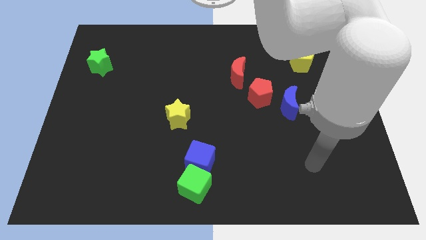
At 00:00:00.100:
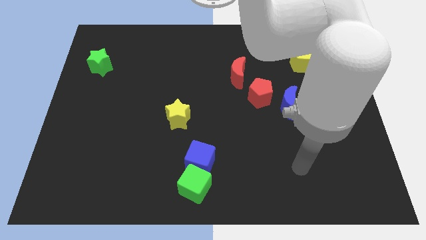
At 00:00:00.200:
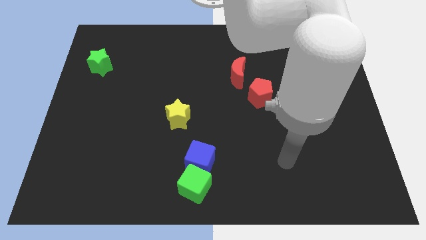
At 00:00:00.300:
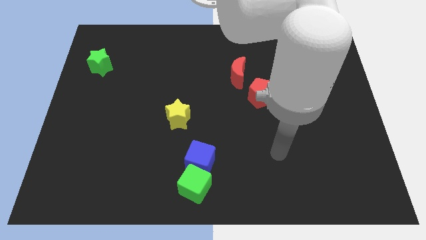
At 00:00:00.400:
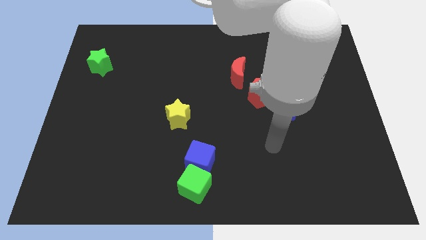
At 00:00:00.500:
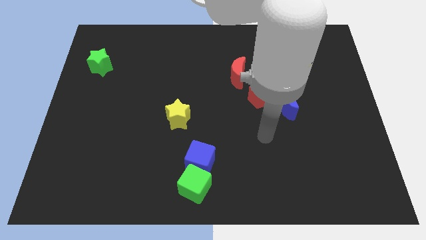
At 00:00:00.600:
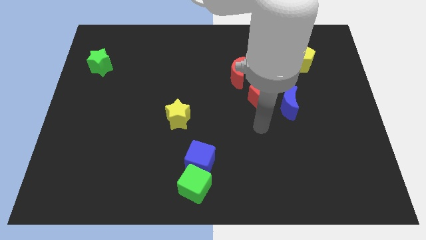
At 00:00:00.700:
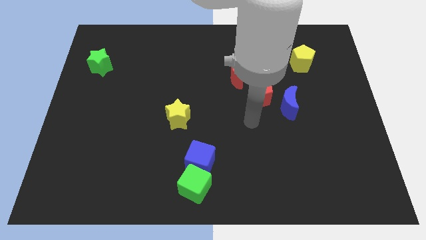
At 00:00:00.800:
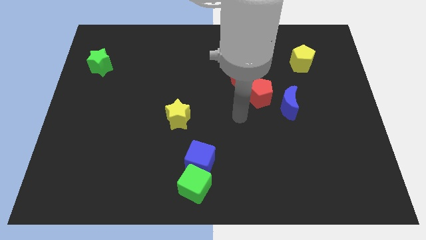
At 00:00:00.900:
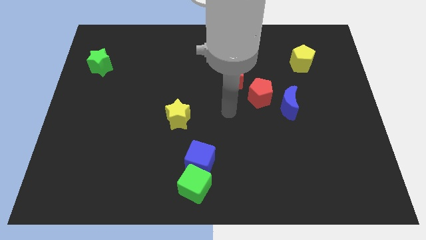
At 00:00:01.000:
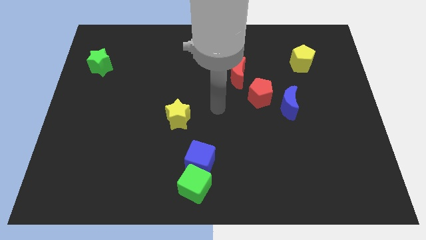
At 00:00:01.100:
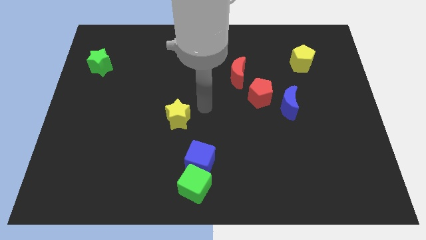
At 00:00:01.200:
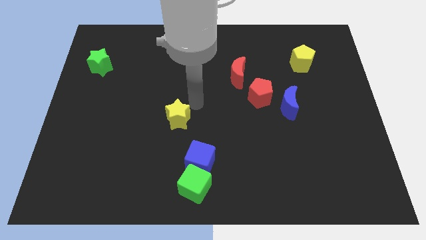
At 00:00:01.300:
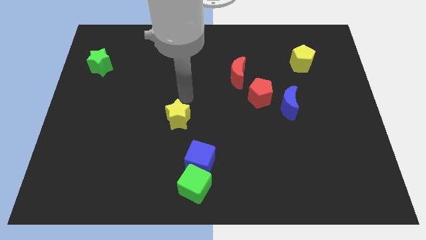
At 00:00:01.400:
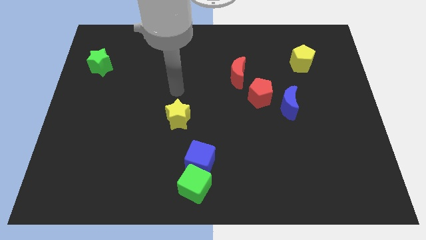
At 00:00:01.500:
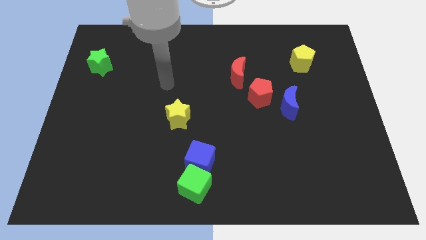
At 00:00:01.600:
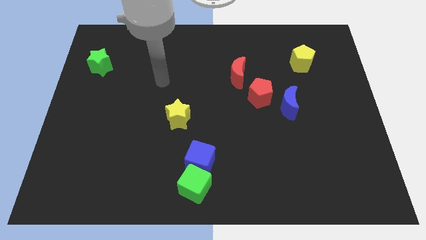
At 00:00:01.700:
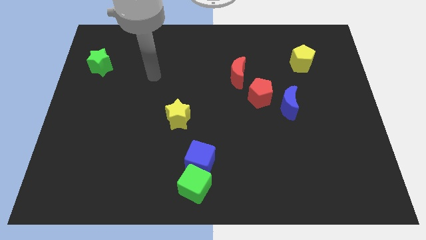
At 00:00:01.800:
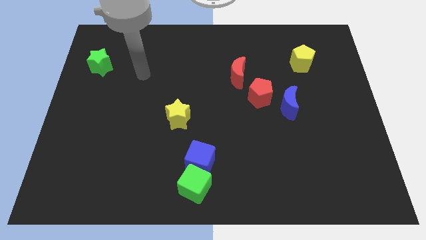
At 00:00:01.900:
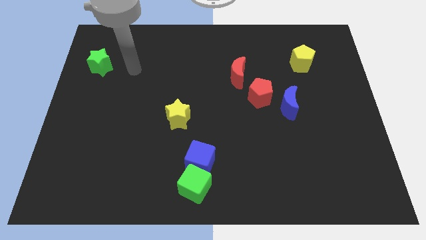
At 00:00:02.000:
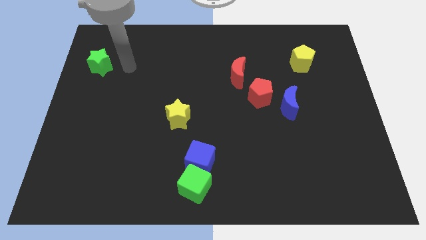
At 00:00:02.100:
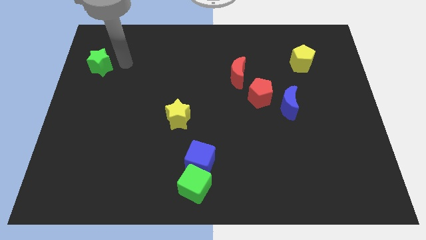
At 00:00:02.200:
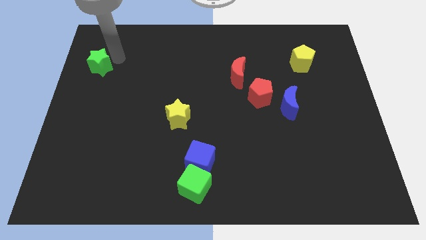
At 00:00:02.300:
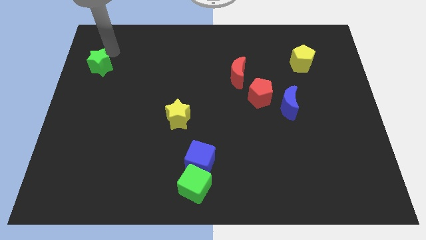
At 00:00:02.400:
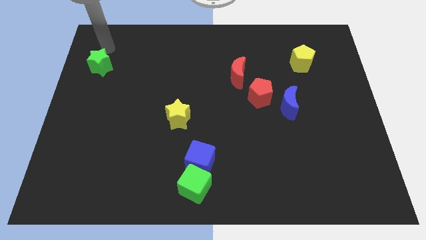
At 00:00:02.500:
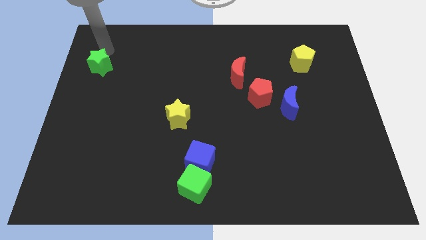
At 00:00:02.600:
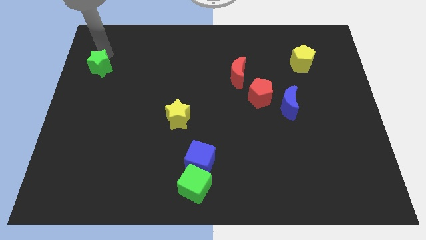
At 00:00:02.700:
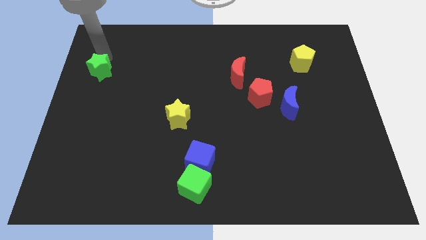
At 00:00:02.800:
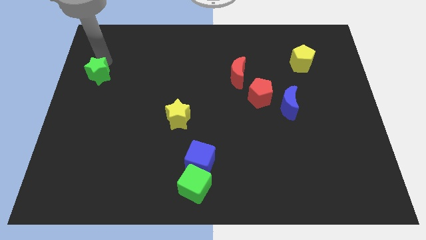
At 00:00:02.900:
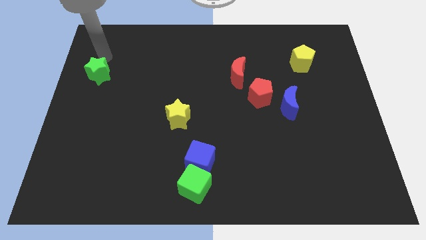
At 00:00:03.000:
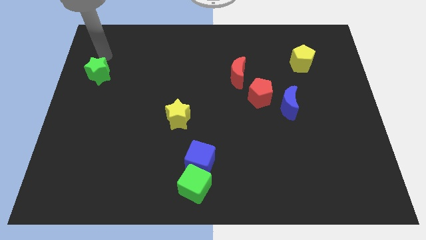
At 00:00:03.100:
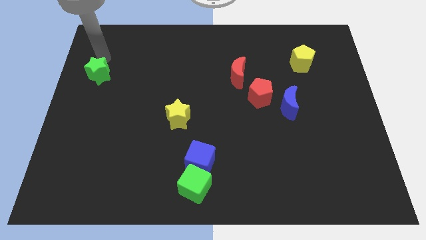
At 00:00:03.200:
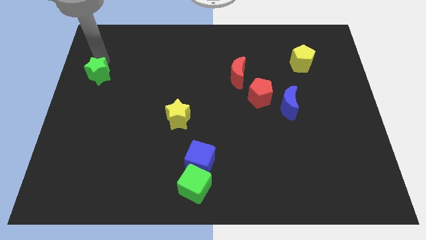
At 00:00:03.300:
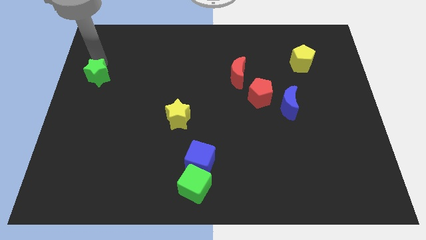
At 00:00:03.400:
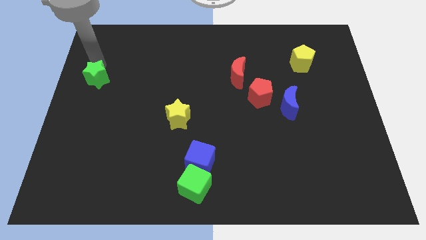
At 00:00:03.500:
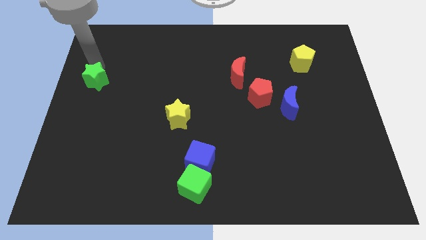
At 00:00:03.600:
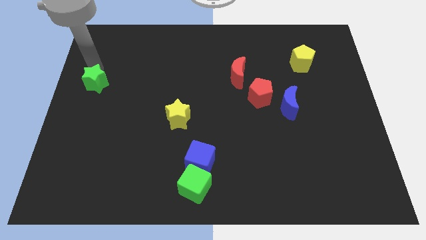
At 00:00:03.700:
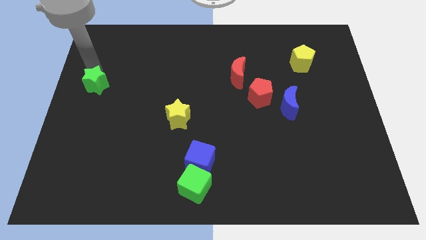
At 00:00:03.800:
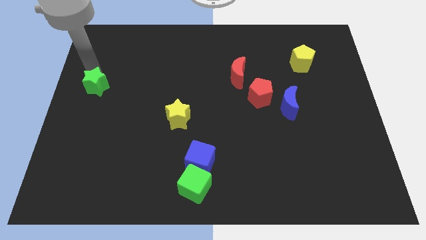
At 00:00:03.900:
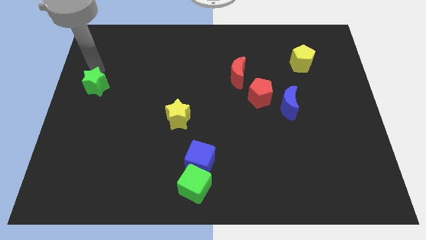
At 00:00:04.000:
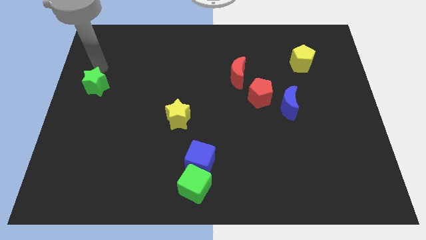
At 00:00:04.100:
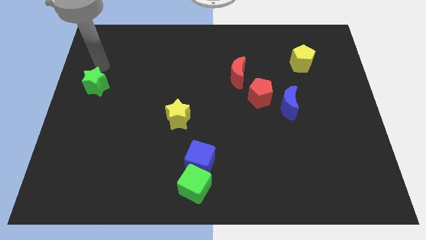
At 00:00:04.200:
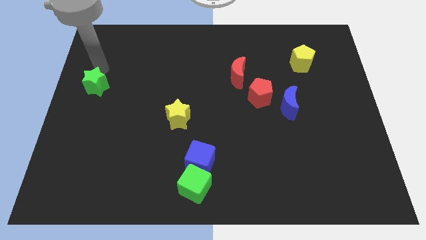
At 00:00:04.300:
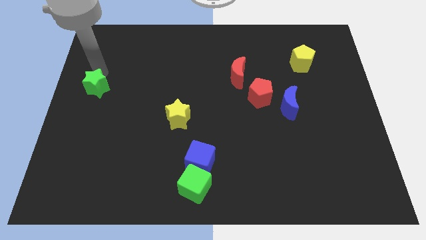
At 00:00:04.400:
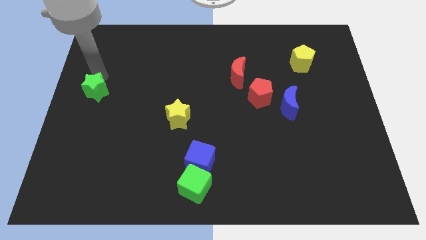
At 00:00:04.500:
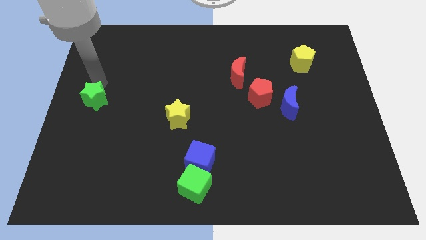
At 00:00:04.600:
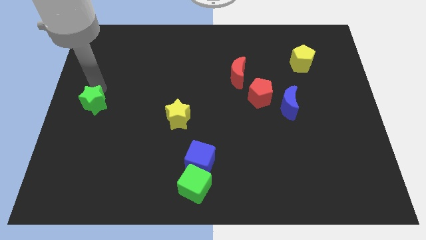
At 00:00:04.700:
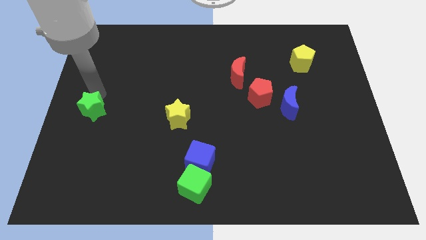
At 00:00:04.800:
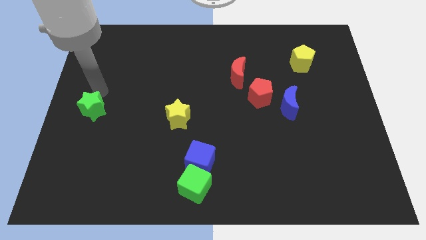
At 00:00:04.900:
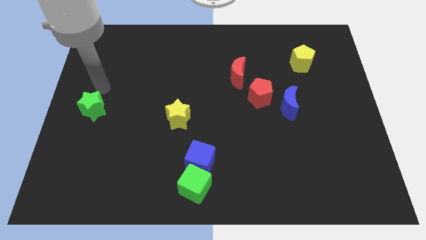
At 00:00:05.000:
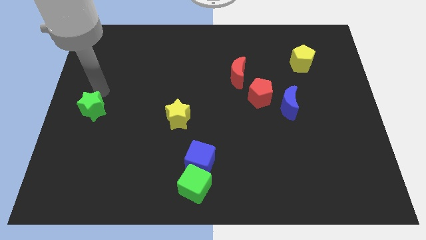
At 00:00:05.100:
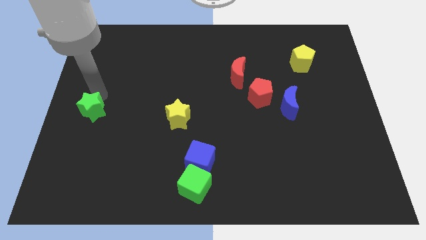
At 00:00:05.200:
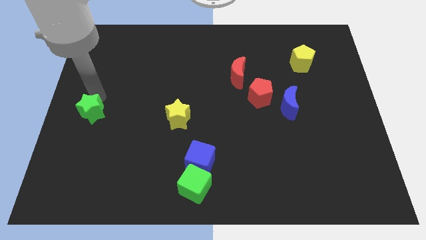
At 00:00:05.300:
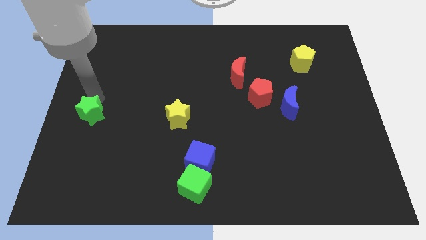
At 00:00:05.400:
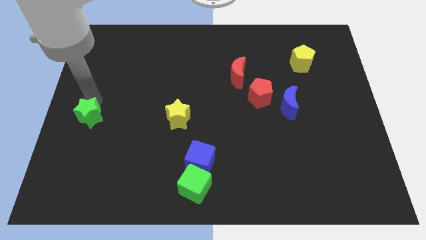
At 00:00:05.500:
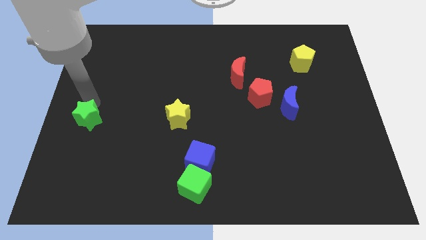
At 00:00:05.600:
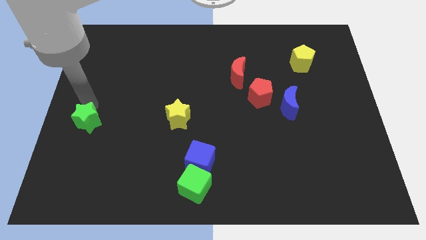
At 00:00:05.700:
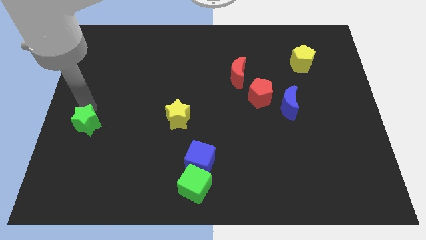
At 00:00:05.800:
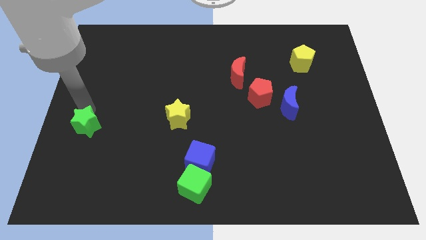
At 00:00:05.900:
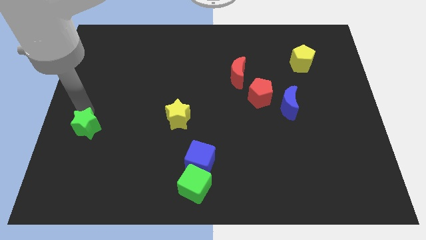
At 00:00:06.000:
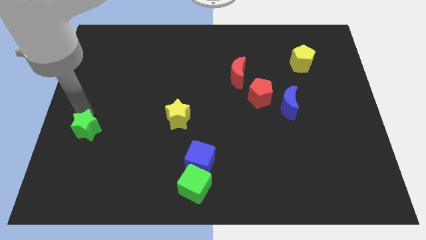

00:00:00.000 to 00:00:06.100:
push the green star downwards

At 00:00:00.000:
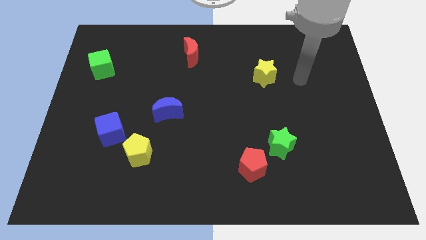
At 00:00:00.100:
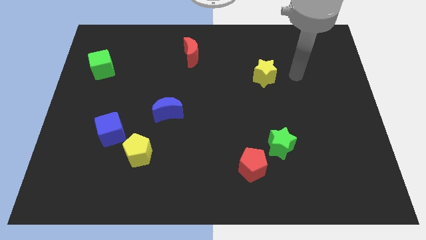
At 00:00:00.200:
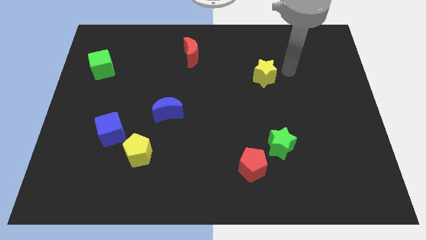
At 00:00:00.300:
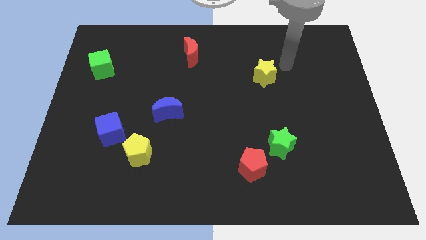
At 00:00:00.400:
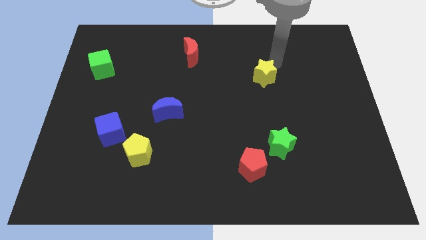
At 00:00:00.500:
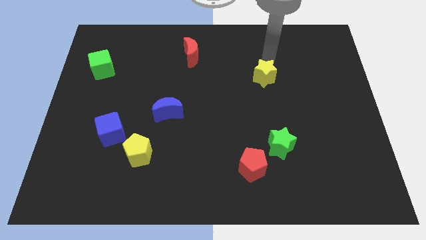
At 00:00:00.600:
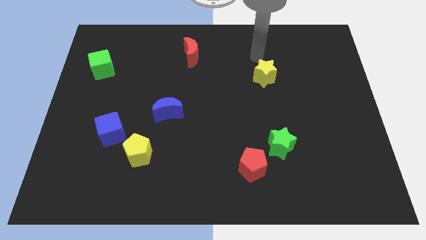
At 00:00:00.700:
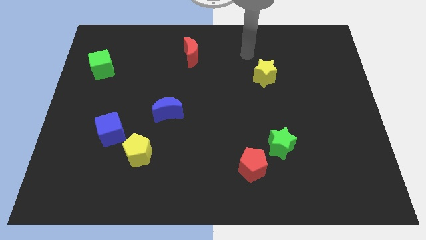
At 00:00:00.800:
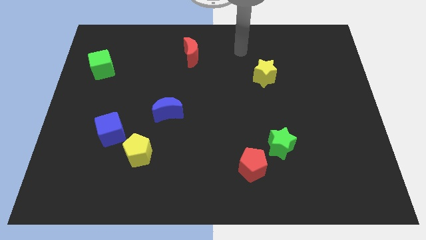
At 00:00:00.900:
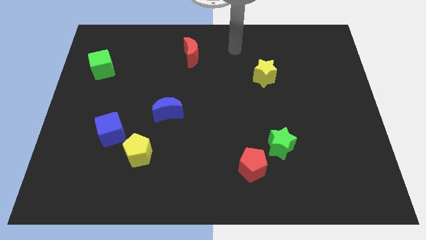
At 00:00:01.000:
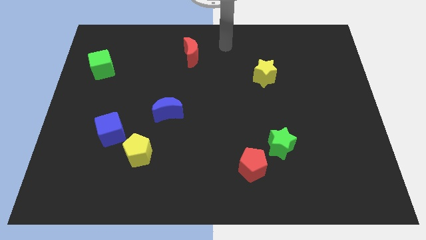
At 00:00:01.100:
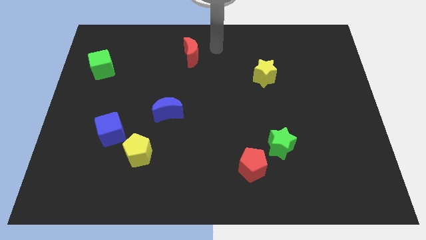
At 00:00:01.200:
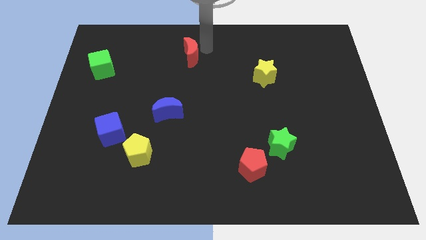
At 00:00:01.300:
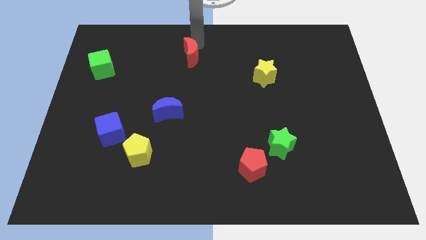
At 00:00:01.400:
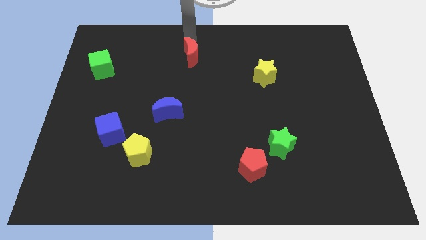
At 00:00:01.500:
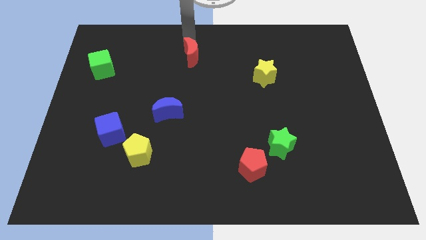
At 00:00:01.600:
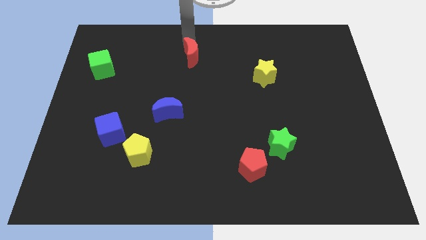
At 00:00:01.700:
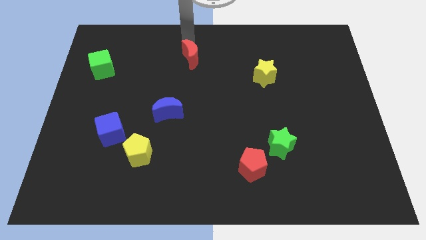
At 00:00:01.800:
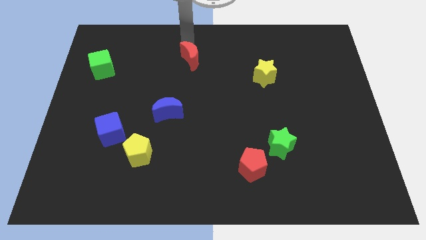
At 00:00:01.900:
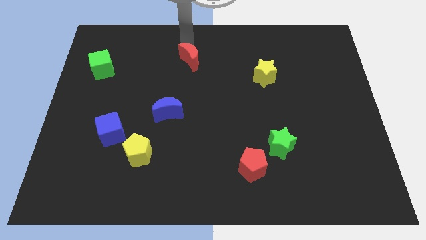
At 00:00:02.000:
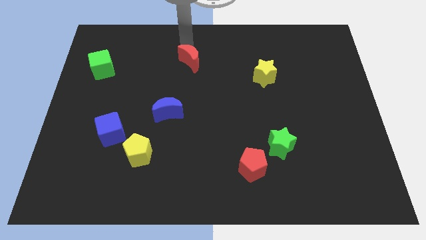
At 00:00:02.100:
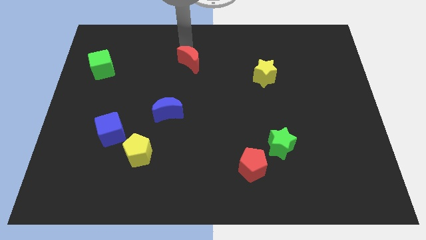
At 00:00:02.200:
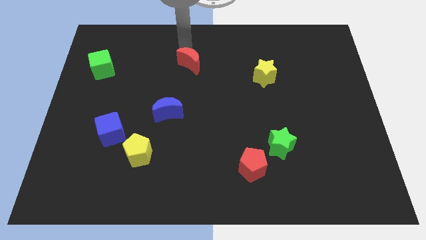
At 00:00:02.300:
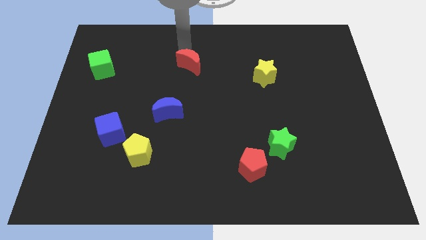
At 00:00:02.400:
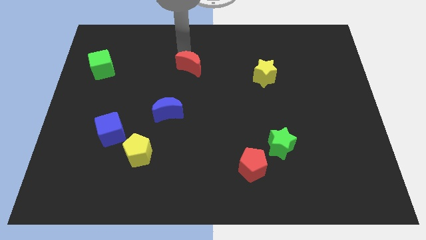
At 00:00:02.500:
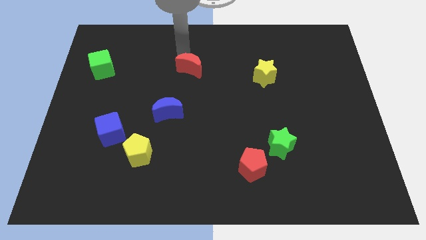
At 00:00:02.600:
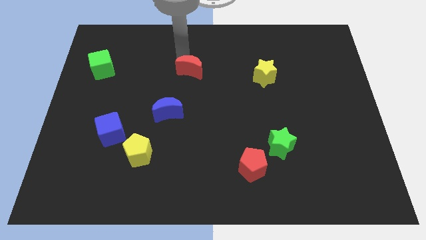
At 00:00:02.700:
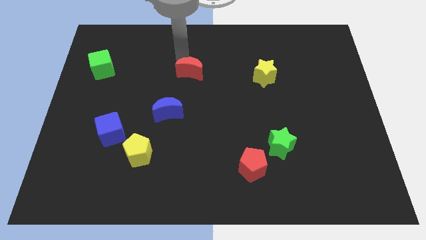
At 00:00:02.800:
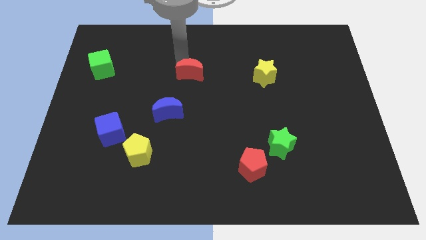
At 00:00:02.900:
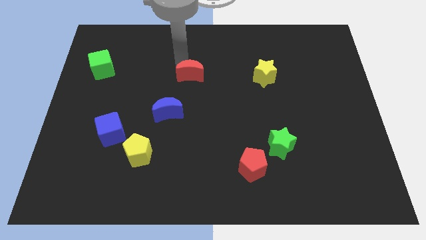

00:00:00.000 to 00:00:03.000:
move the red moon a bit downwards
